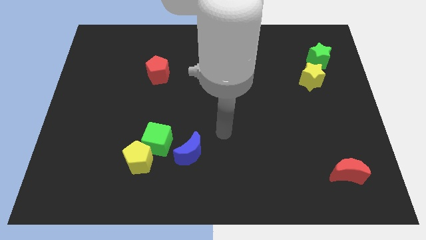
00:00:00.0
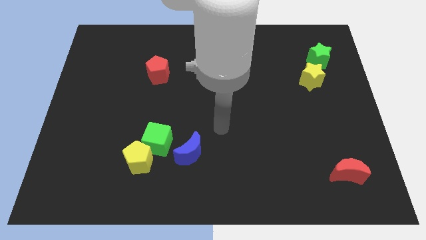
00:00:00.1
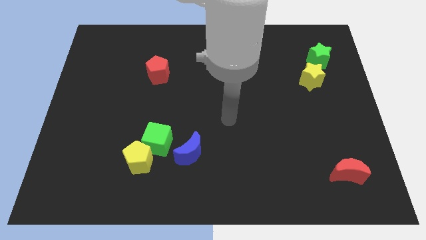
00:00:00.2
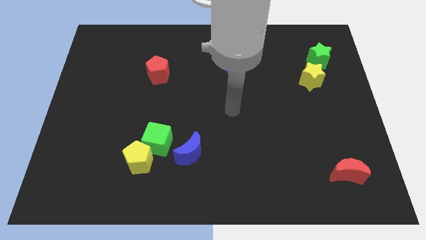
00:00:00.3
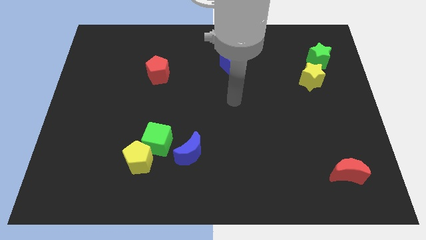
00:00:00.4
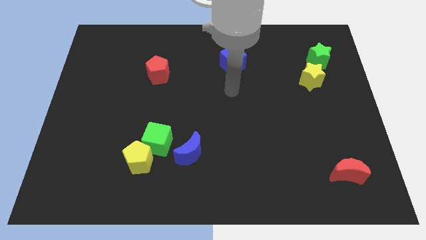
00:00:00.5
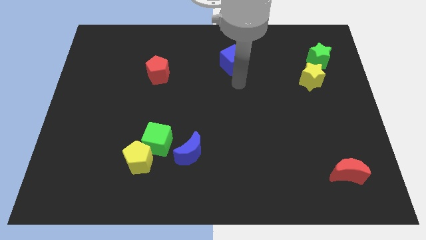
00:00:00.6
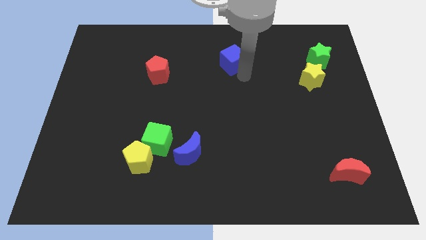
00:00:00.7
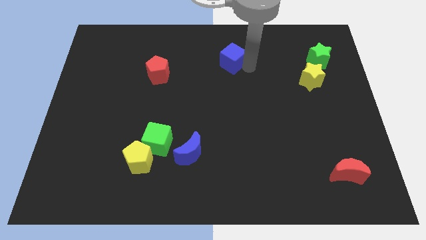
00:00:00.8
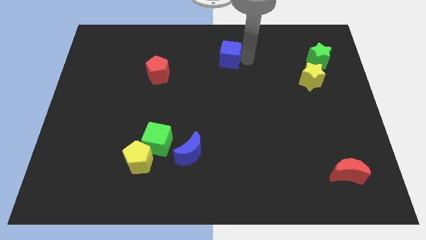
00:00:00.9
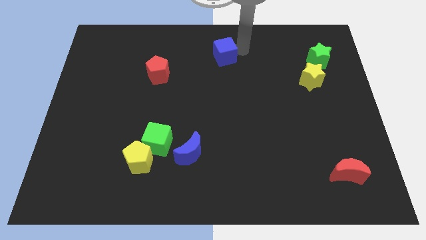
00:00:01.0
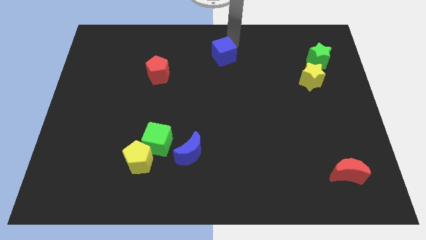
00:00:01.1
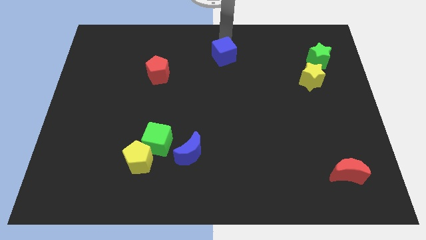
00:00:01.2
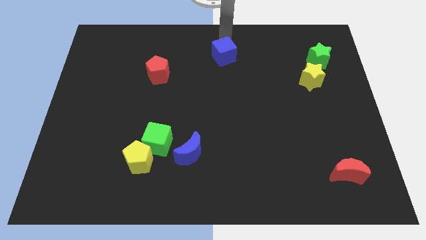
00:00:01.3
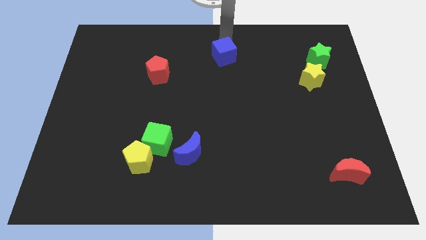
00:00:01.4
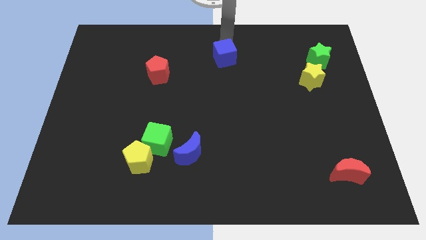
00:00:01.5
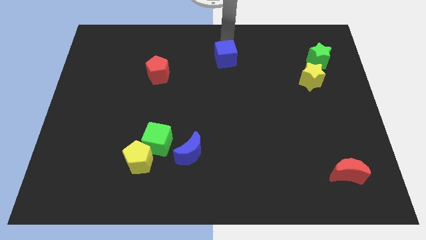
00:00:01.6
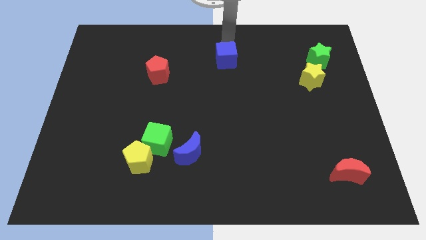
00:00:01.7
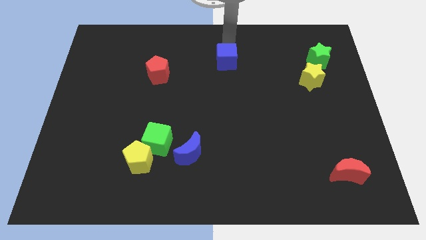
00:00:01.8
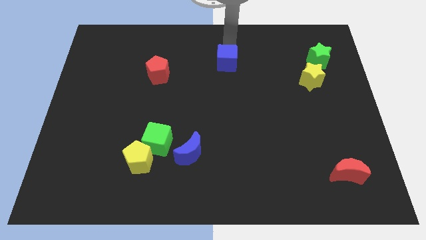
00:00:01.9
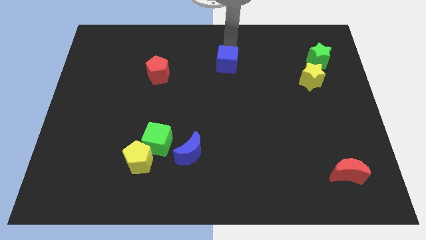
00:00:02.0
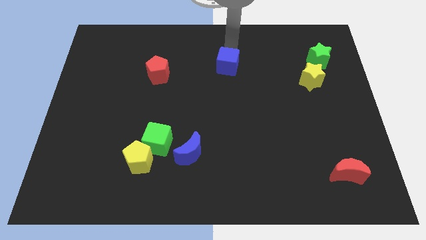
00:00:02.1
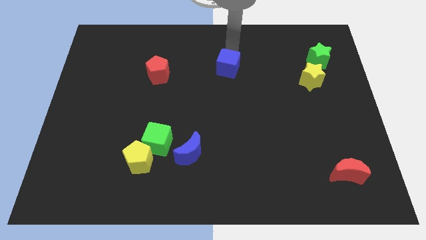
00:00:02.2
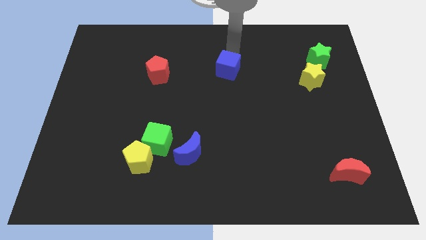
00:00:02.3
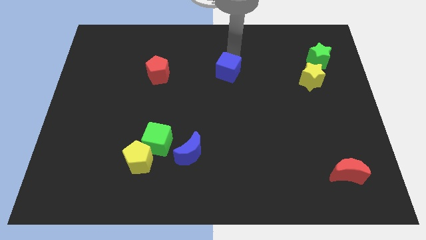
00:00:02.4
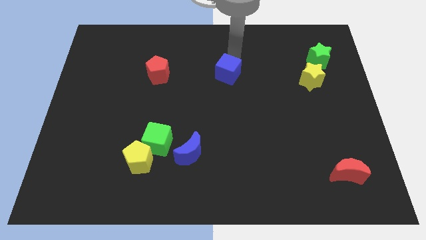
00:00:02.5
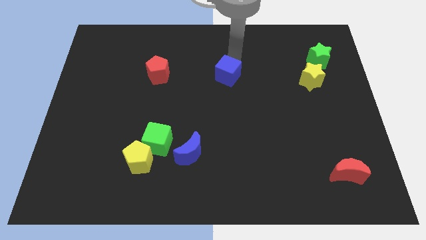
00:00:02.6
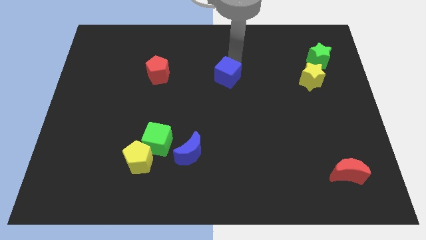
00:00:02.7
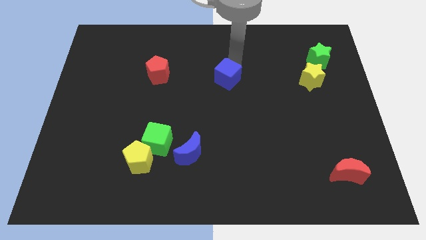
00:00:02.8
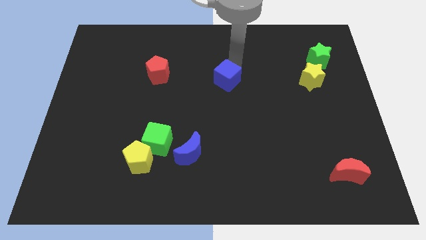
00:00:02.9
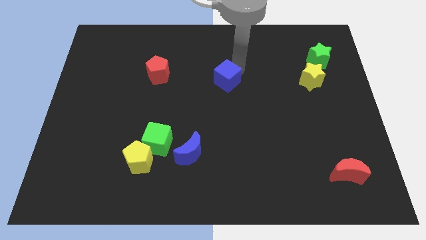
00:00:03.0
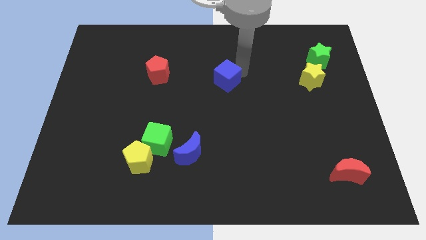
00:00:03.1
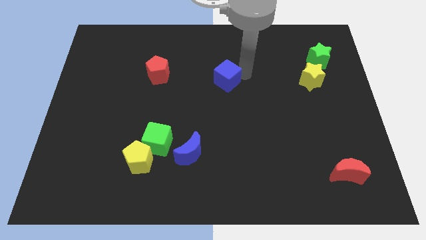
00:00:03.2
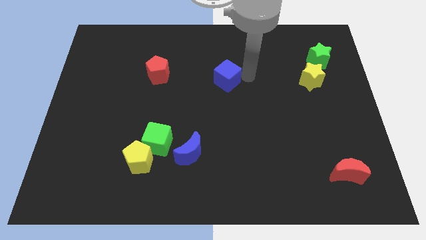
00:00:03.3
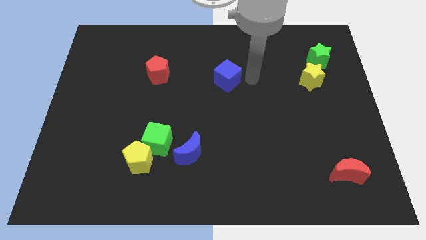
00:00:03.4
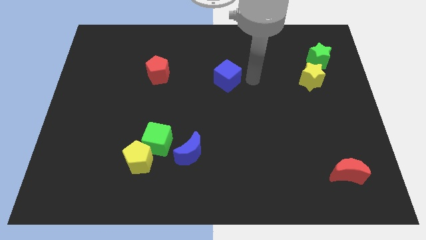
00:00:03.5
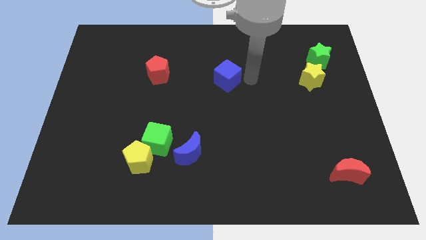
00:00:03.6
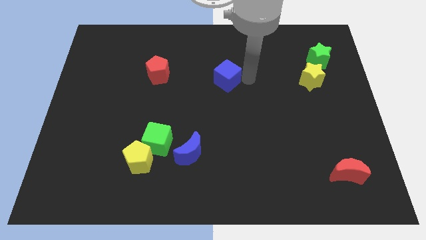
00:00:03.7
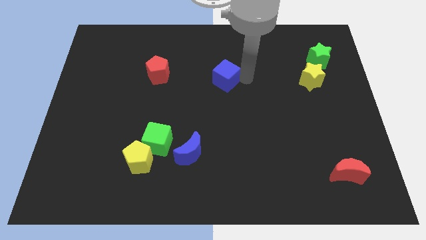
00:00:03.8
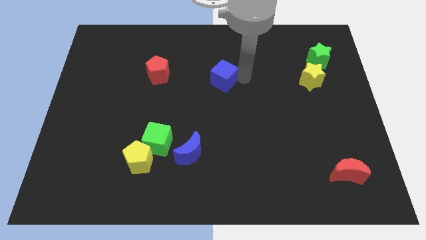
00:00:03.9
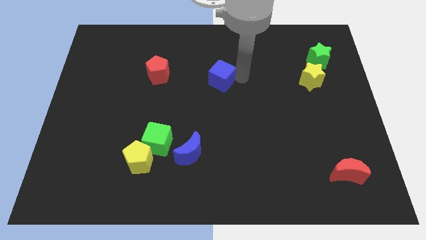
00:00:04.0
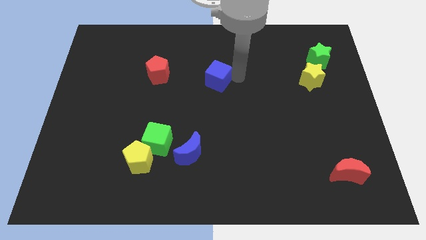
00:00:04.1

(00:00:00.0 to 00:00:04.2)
move the blue cube diagonally down and left slightly

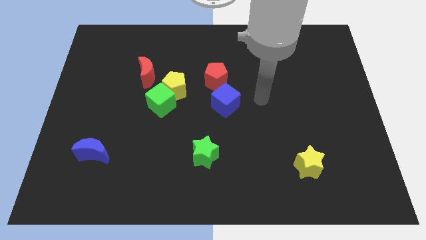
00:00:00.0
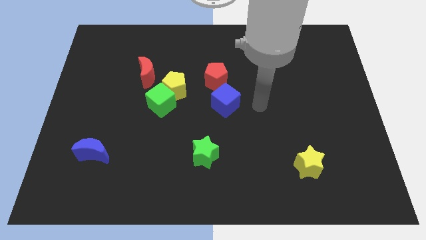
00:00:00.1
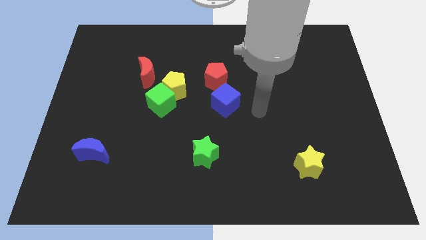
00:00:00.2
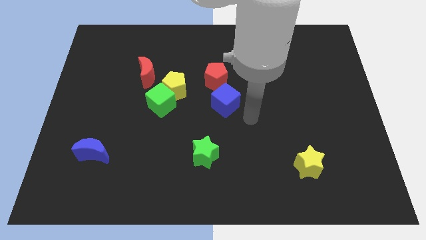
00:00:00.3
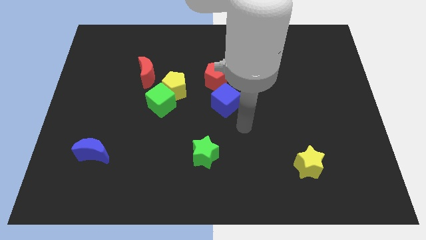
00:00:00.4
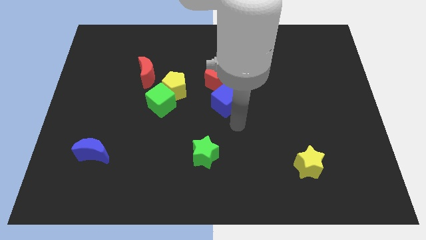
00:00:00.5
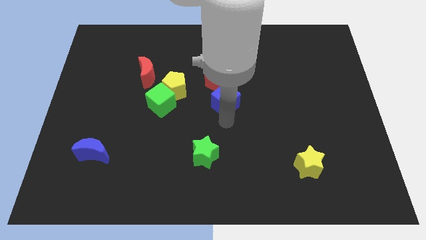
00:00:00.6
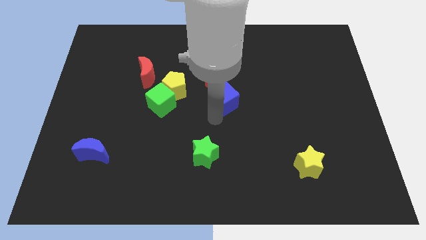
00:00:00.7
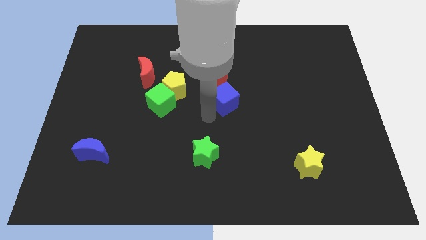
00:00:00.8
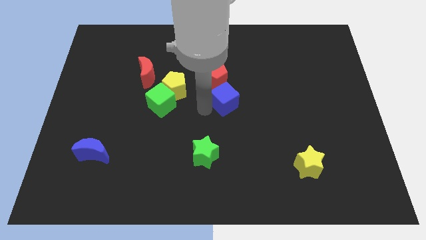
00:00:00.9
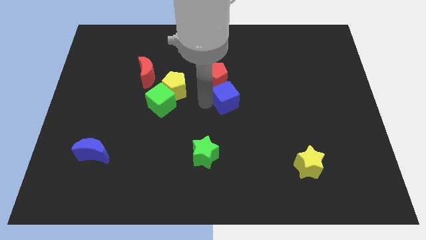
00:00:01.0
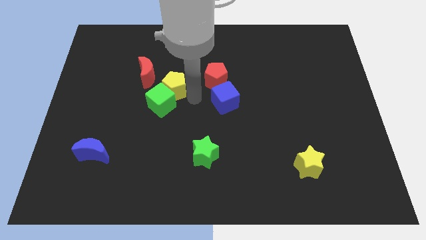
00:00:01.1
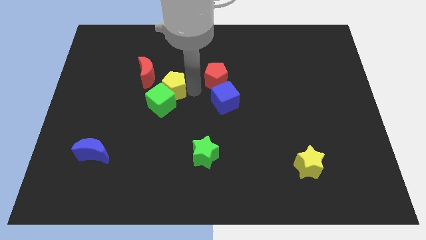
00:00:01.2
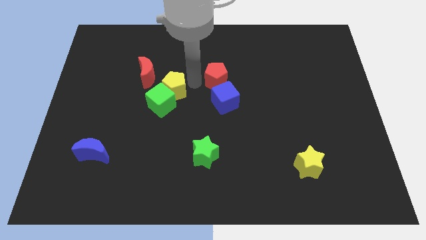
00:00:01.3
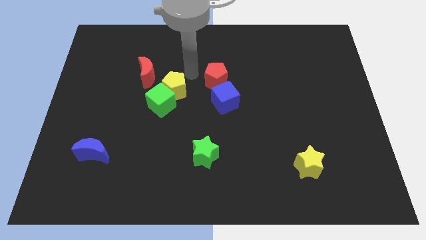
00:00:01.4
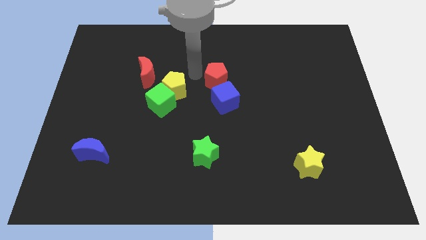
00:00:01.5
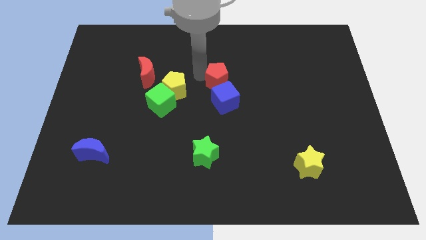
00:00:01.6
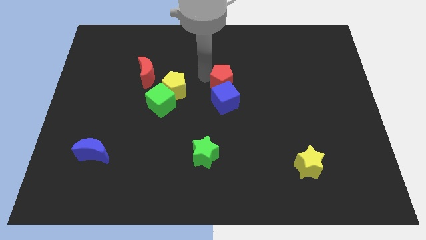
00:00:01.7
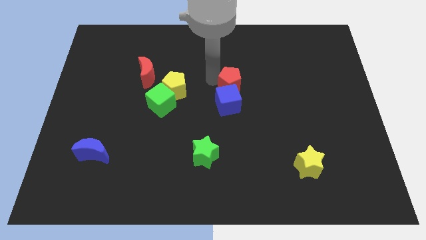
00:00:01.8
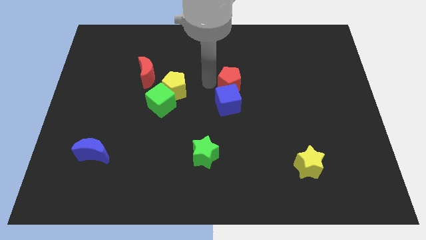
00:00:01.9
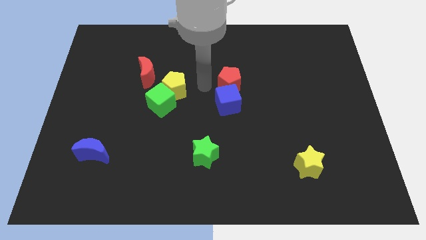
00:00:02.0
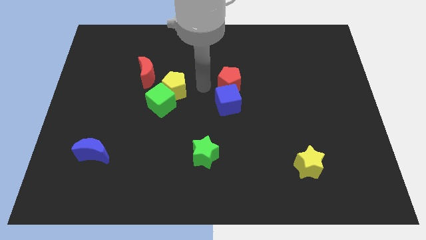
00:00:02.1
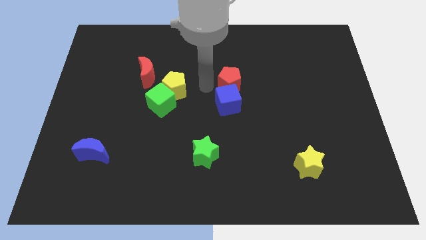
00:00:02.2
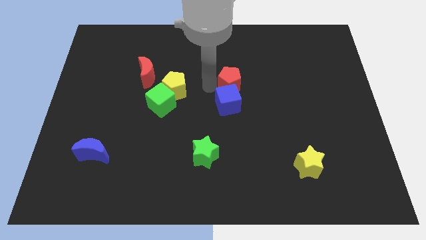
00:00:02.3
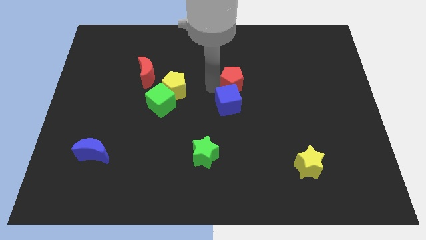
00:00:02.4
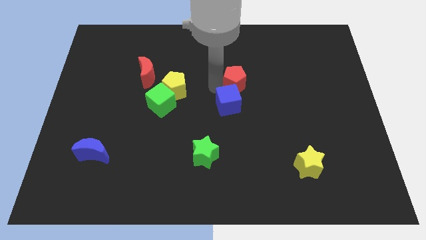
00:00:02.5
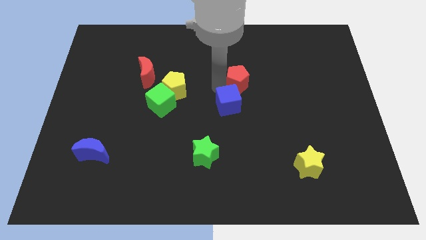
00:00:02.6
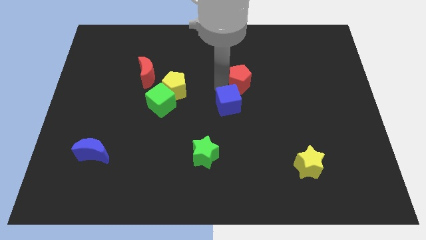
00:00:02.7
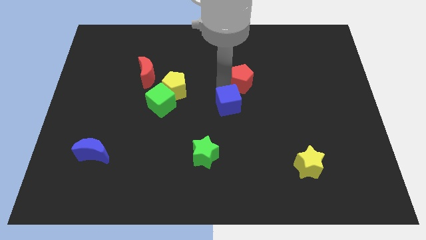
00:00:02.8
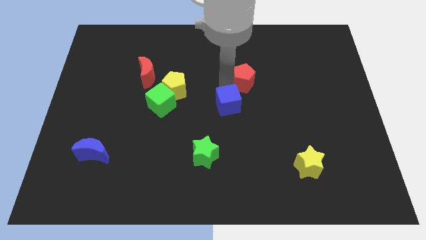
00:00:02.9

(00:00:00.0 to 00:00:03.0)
slide the red pentagon somewhat right

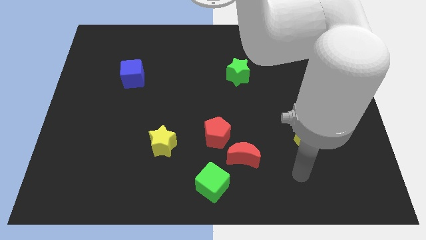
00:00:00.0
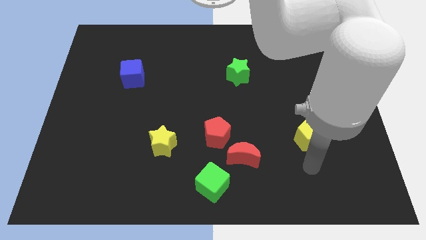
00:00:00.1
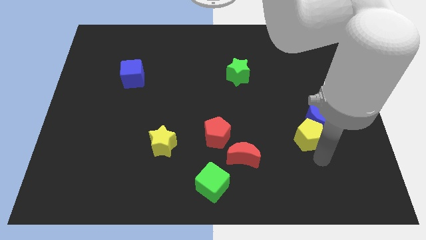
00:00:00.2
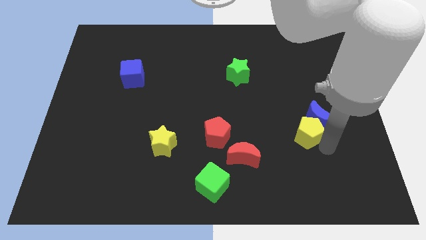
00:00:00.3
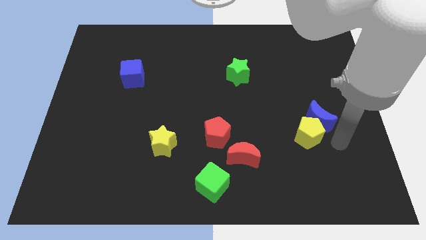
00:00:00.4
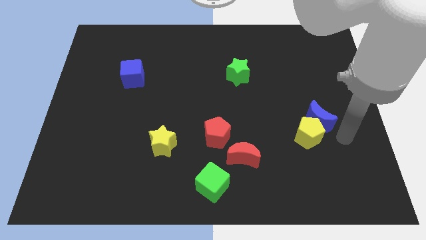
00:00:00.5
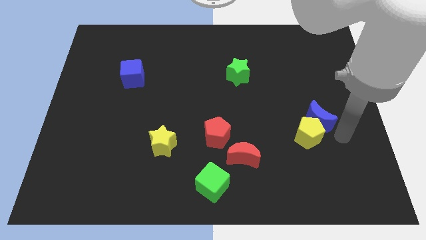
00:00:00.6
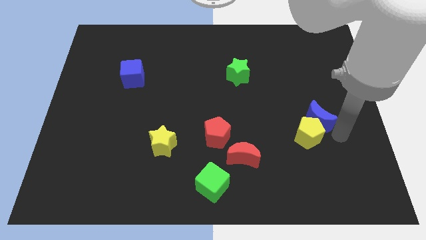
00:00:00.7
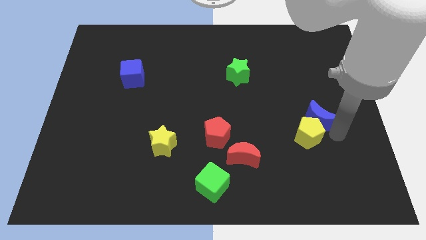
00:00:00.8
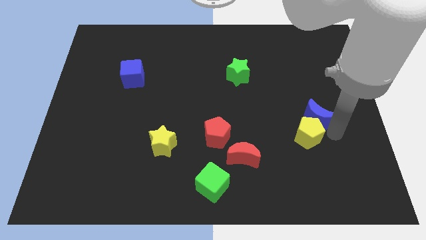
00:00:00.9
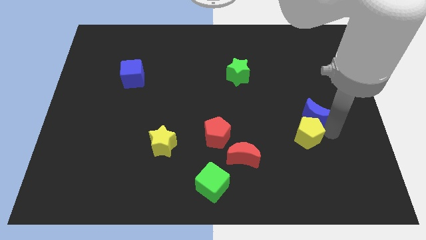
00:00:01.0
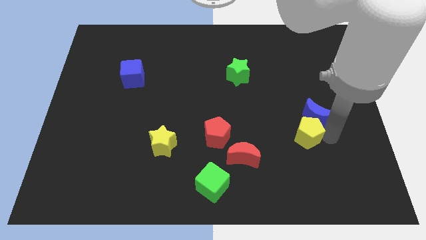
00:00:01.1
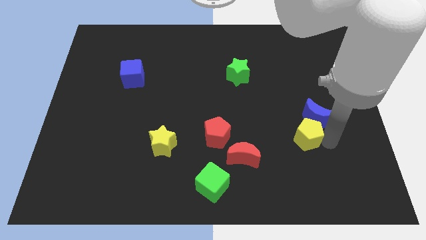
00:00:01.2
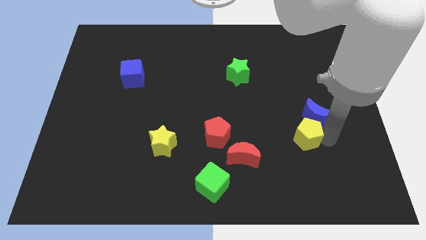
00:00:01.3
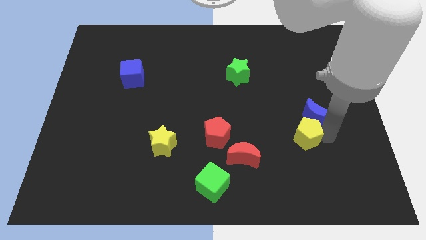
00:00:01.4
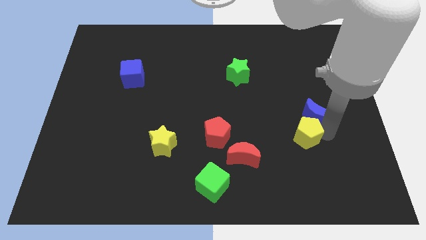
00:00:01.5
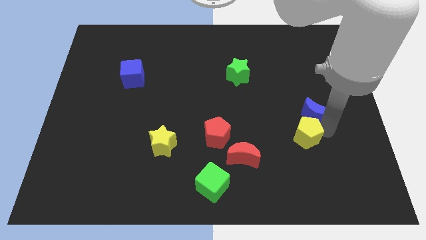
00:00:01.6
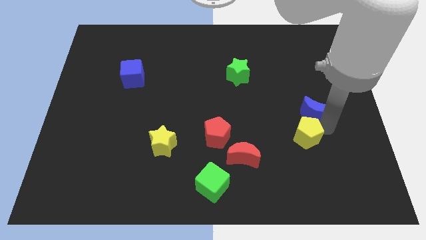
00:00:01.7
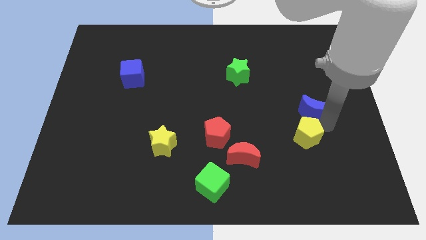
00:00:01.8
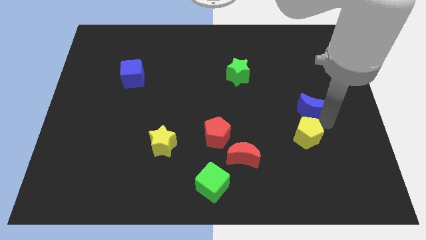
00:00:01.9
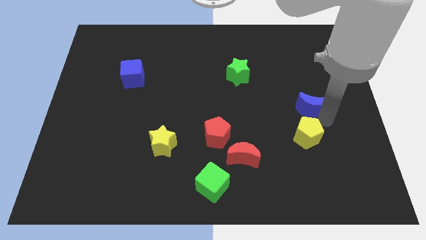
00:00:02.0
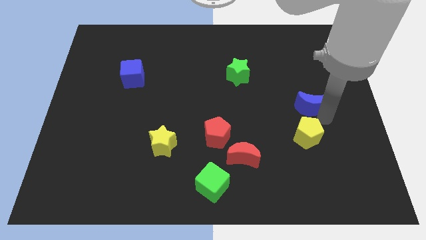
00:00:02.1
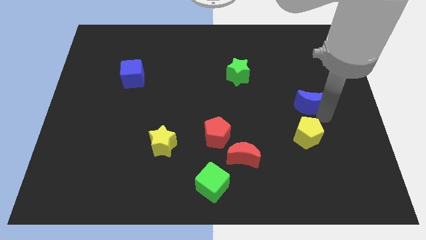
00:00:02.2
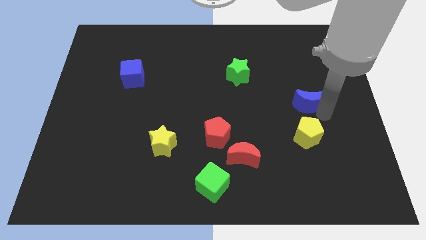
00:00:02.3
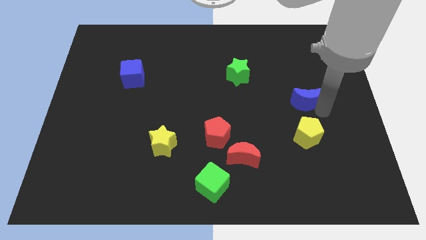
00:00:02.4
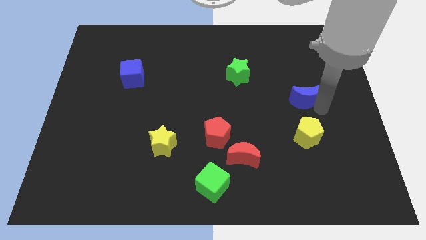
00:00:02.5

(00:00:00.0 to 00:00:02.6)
slide the blue moon a bit up
